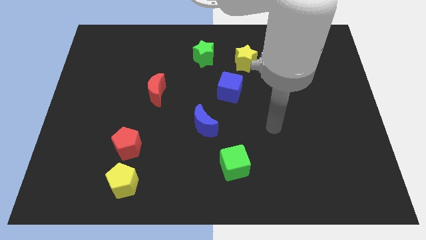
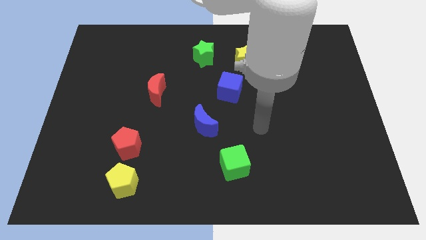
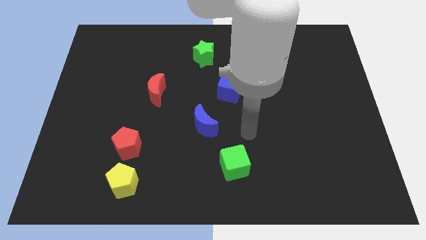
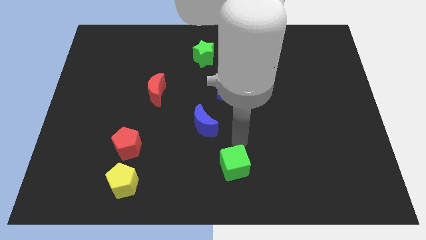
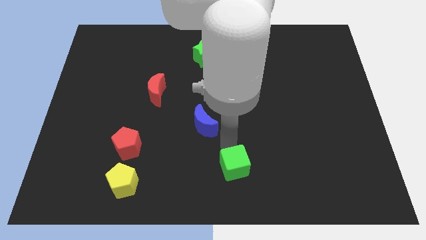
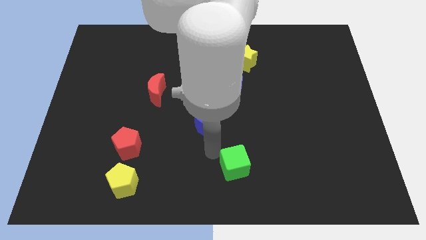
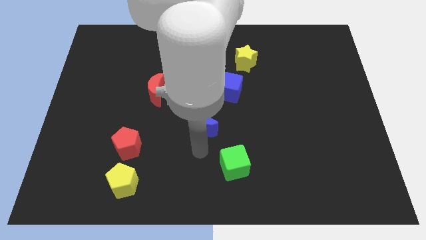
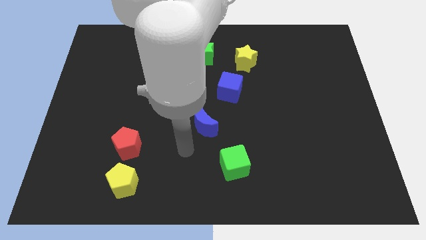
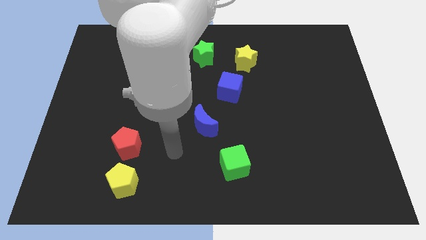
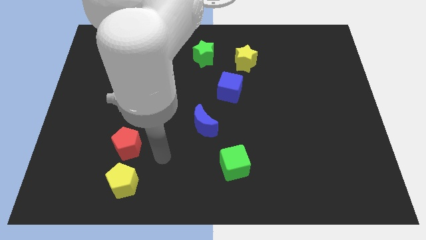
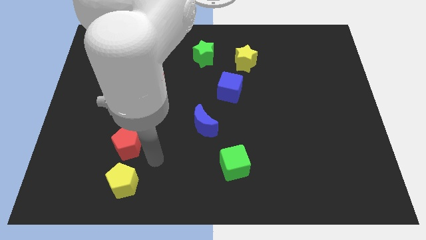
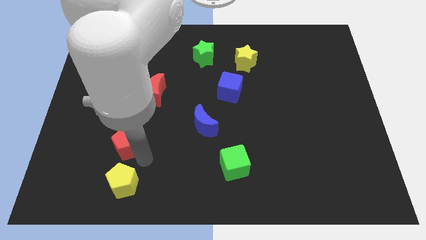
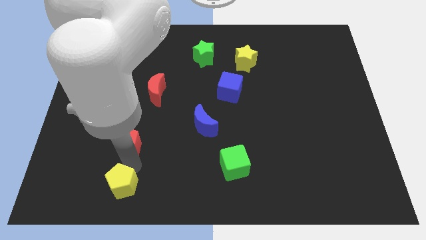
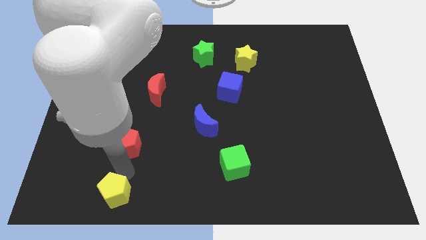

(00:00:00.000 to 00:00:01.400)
separate the red pentagon from the yellow pentagon

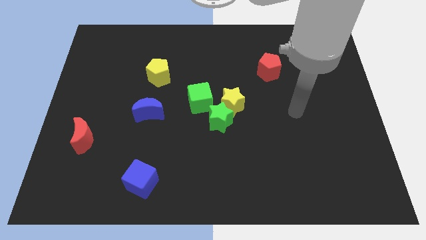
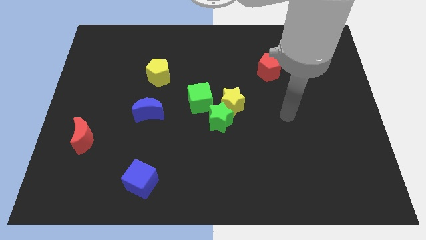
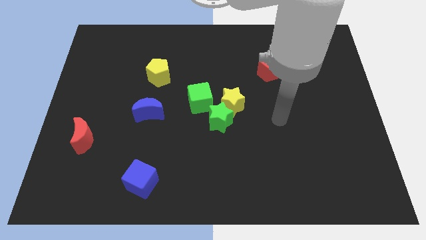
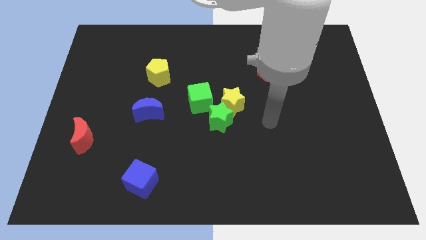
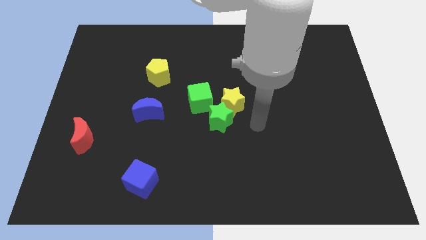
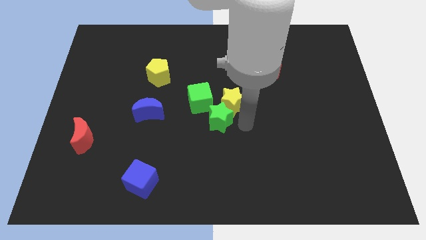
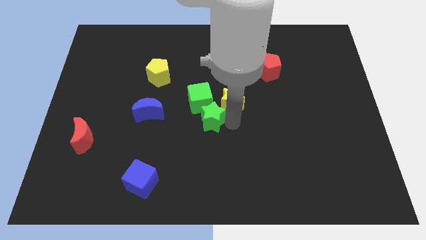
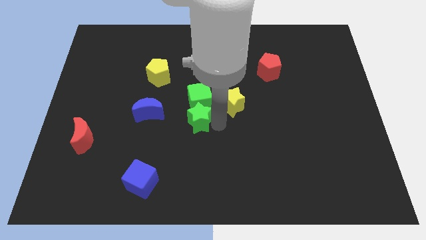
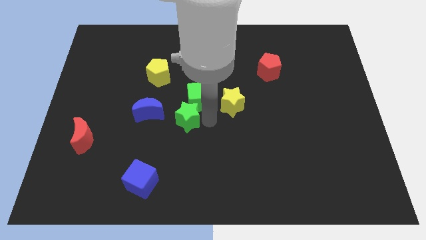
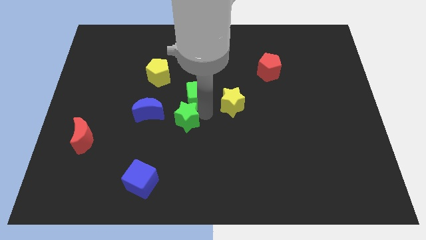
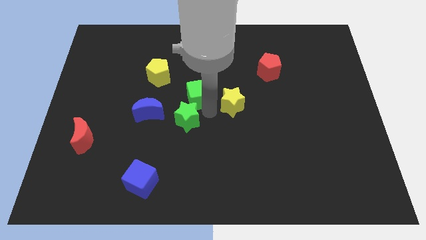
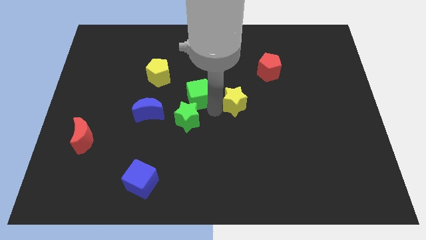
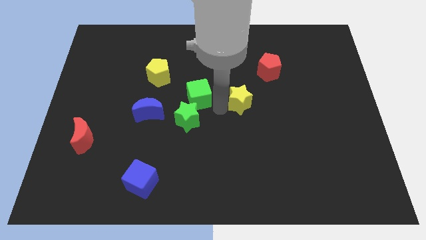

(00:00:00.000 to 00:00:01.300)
separate the yellow star from the green star and green cube

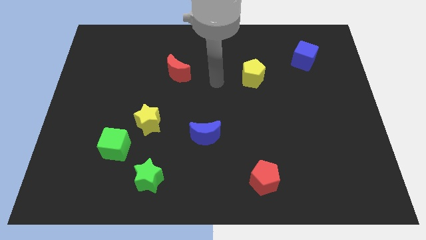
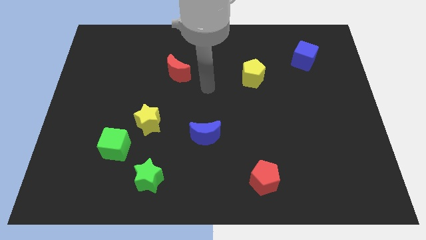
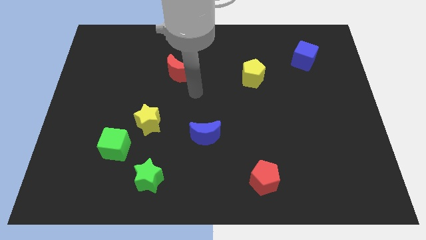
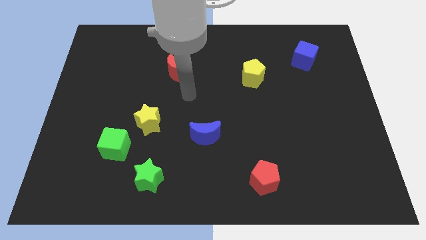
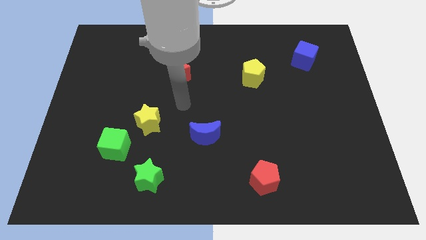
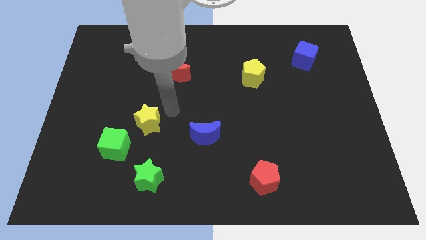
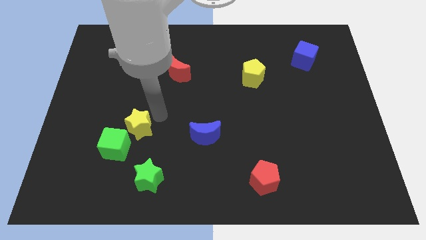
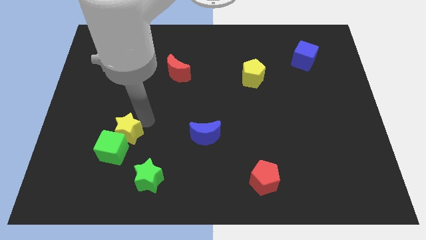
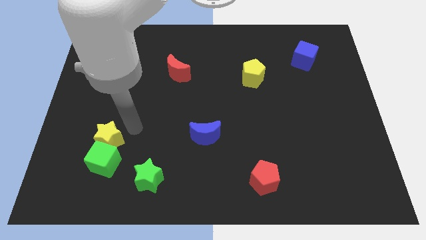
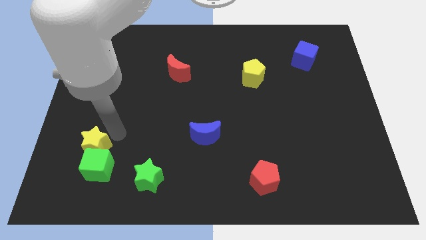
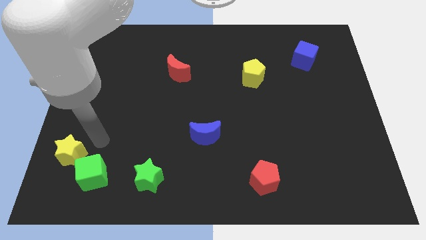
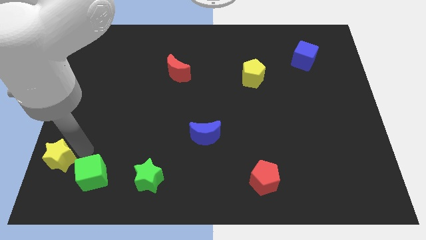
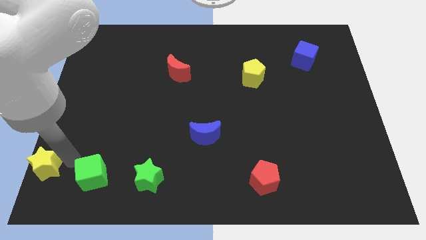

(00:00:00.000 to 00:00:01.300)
separate the green cube from the yellow star

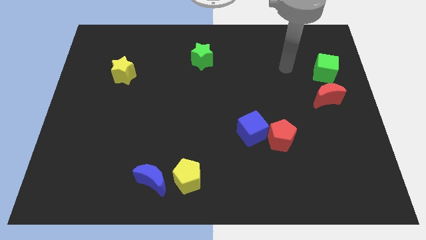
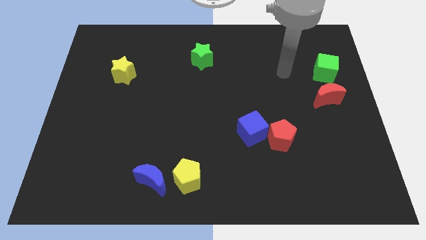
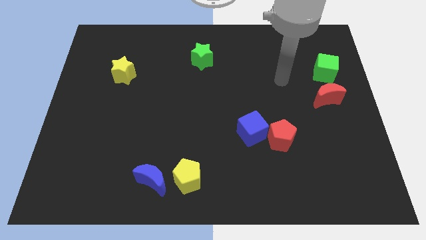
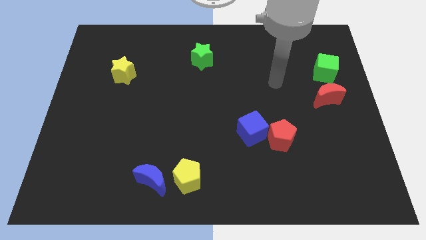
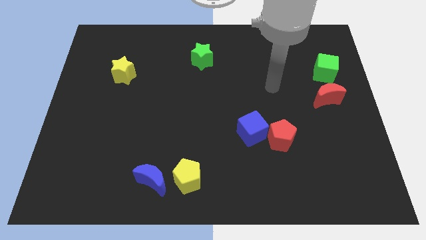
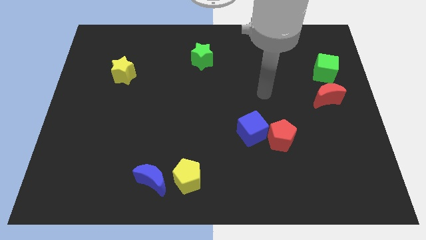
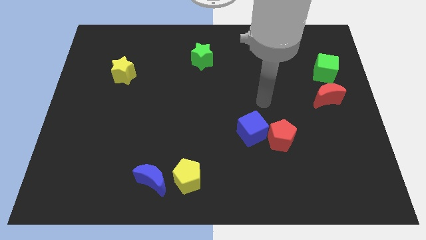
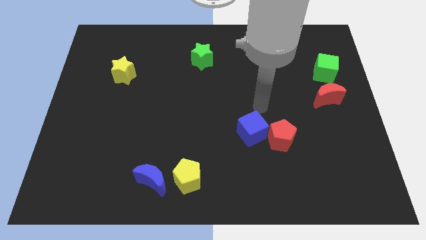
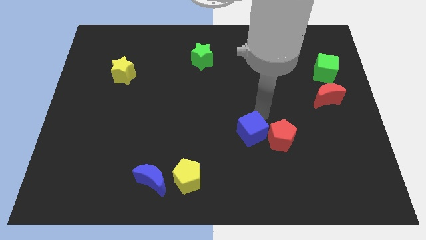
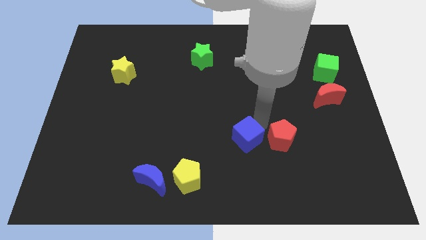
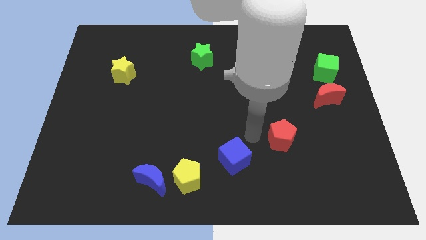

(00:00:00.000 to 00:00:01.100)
separate the red pentagon from the blue cube

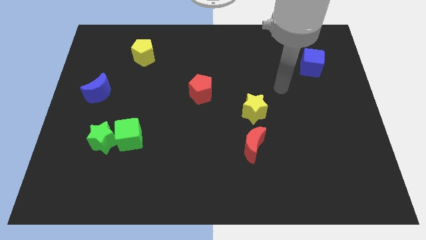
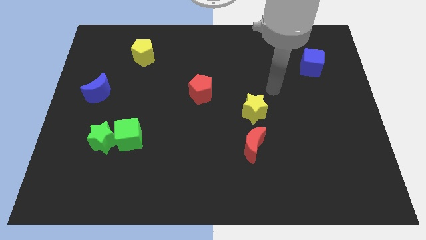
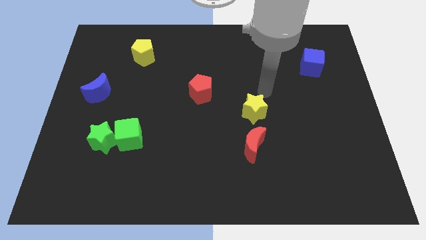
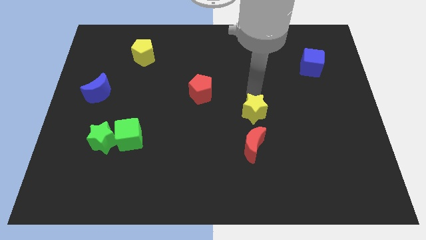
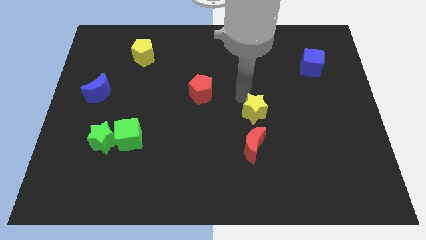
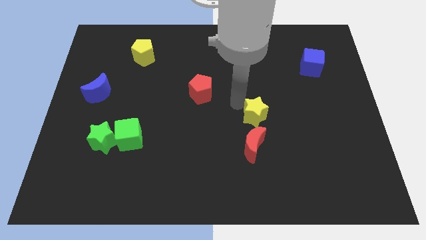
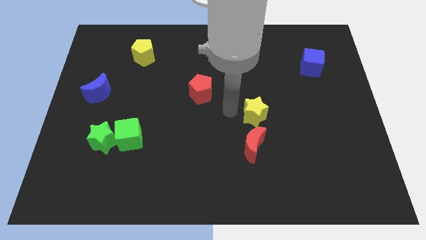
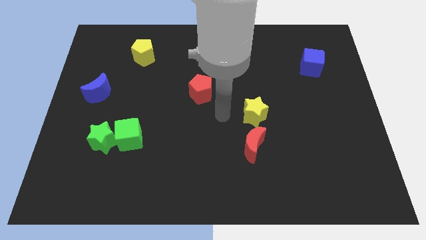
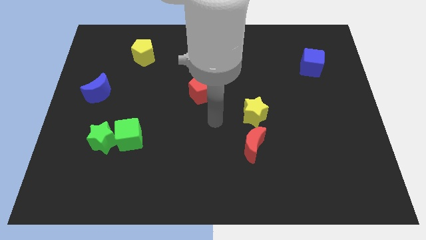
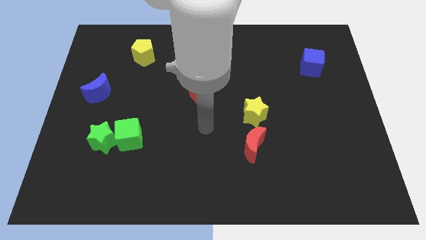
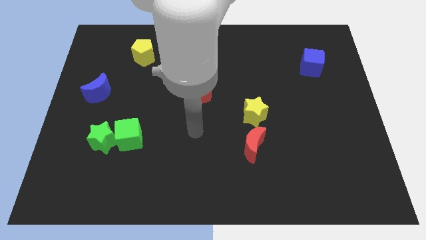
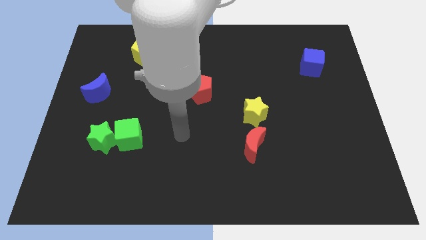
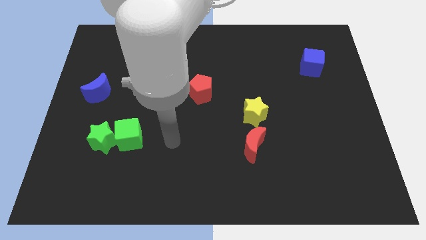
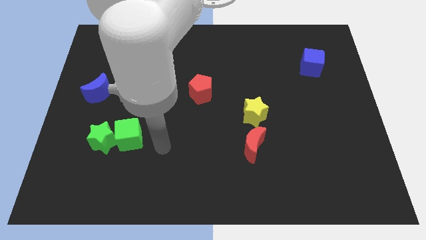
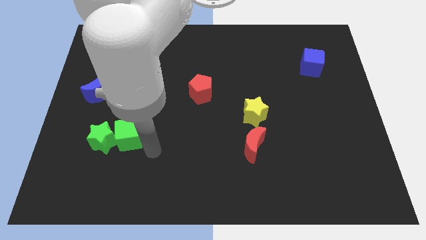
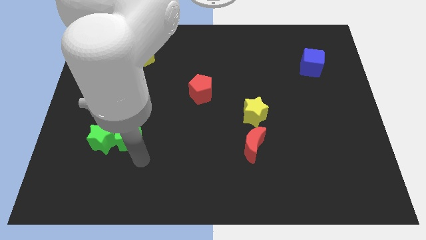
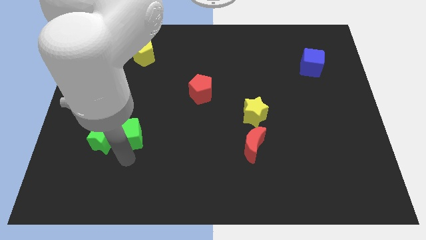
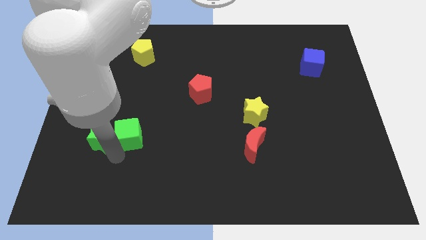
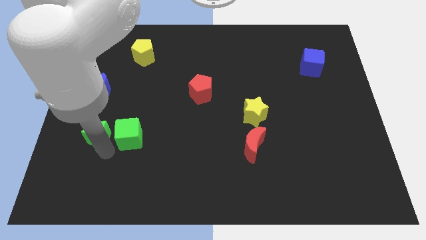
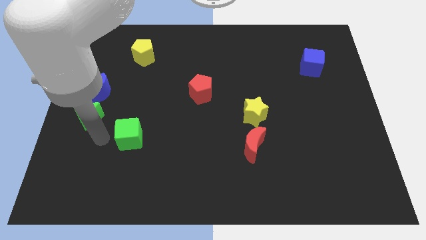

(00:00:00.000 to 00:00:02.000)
pull the green cube apart from the green star

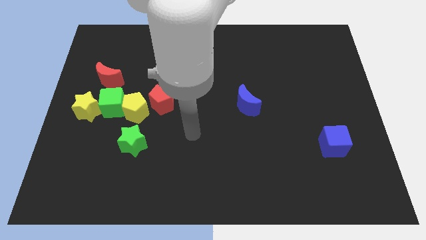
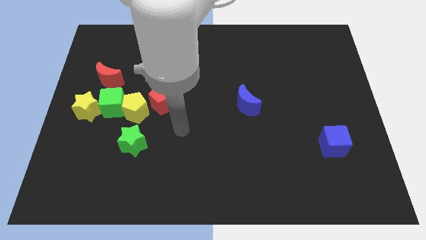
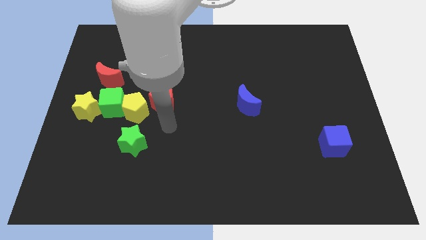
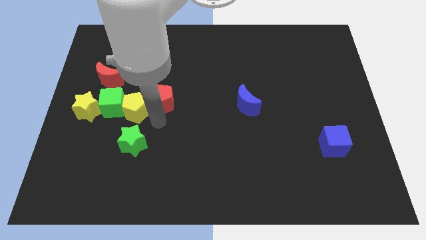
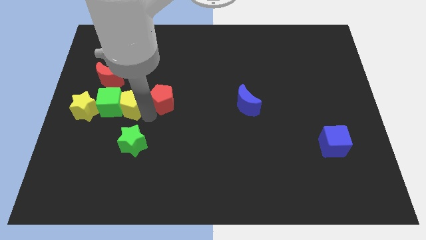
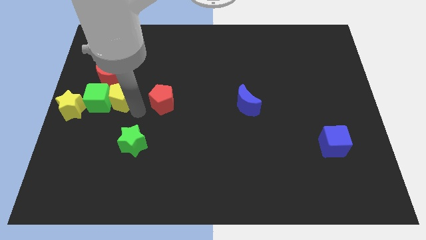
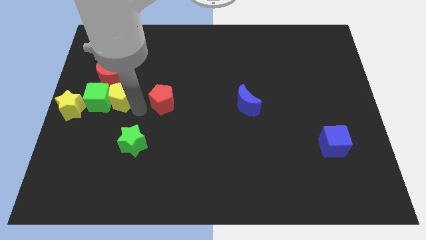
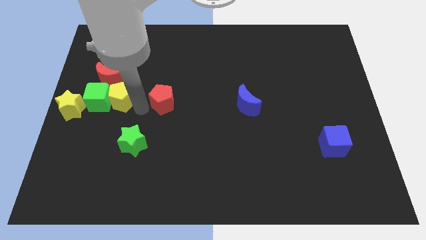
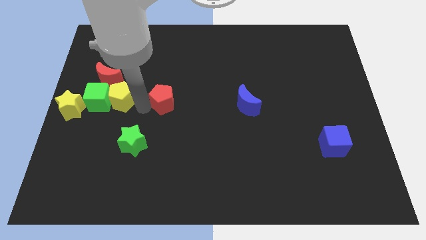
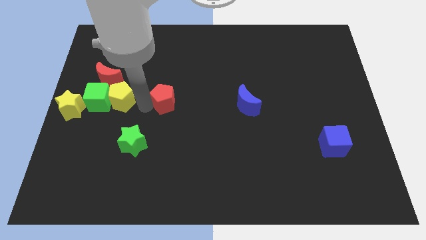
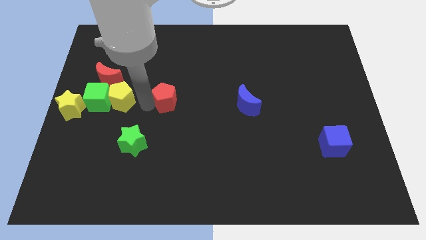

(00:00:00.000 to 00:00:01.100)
pull the red pentagon apart from the yellow pentagon

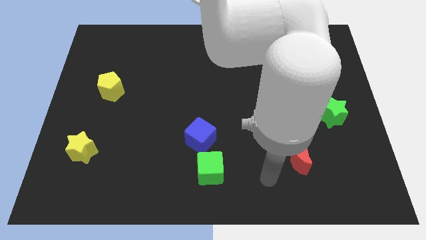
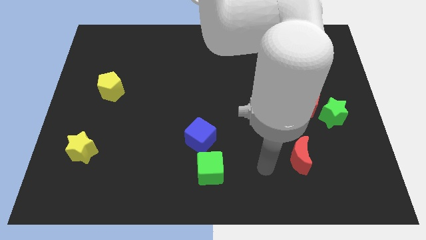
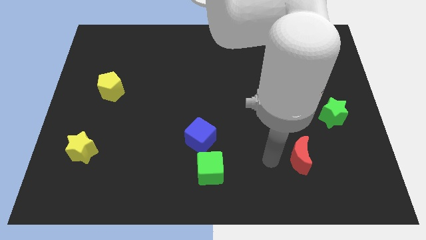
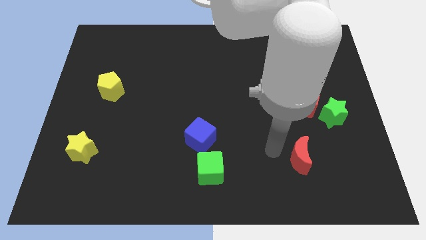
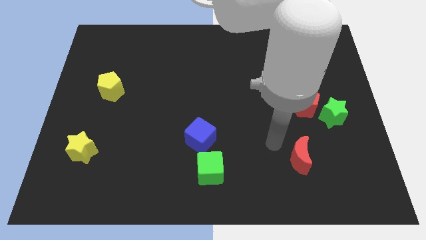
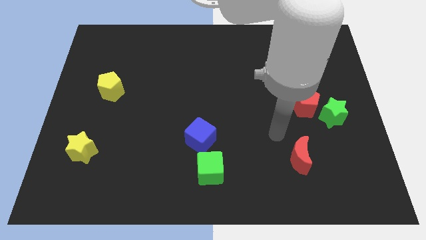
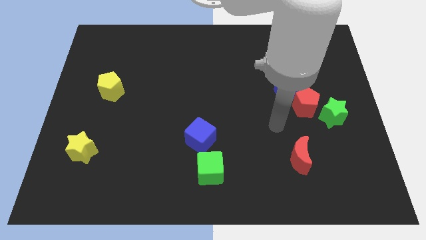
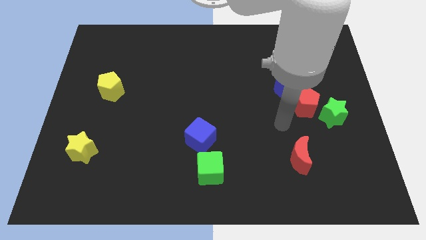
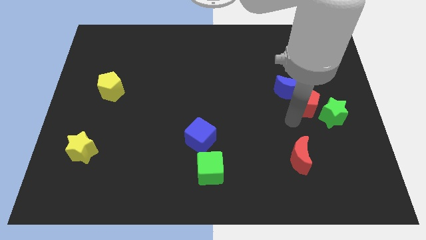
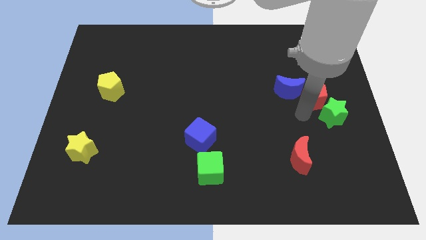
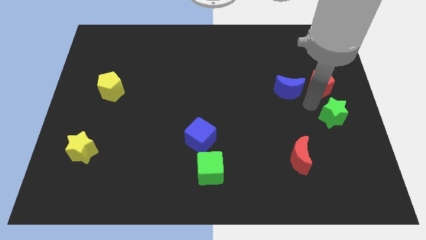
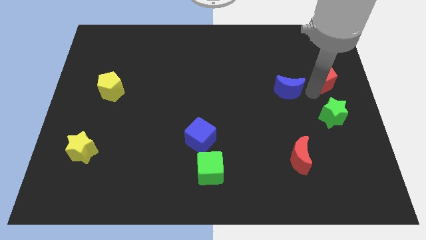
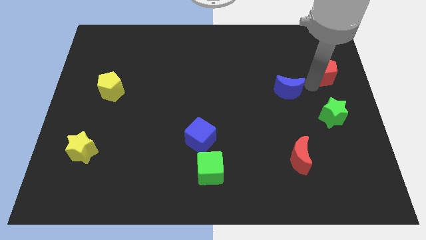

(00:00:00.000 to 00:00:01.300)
separate the blue moon from the red pentagon
